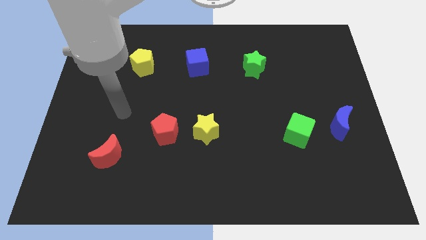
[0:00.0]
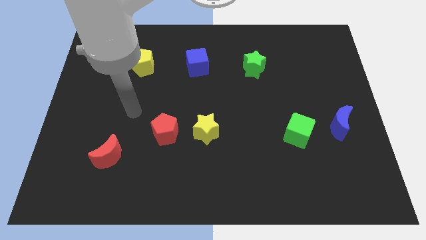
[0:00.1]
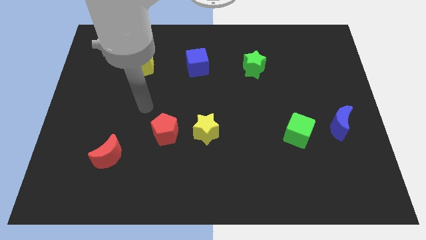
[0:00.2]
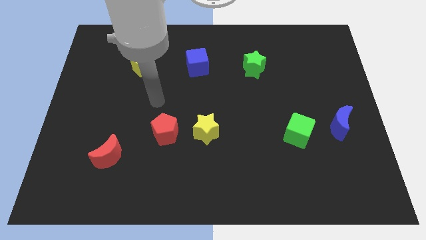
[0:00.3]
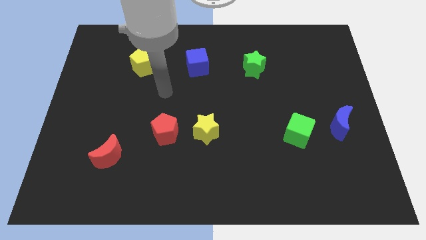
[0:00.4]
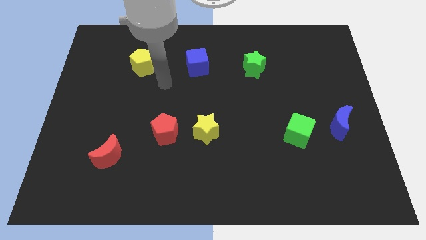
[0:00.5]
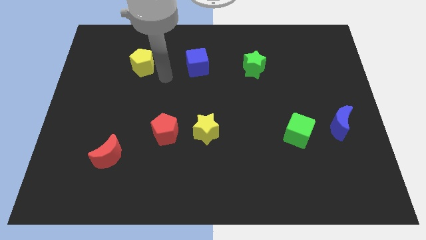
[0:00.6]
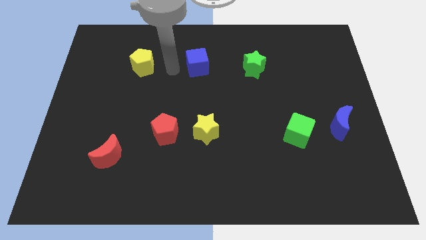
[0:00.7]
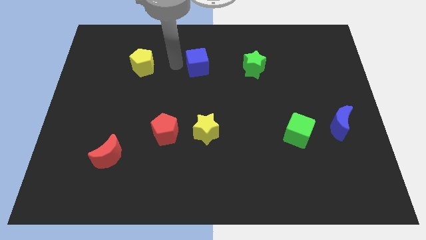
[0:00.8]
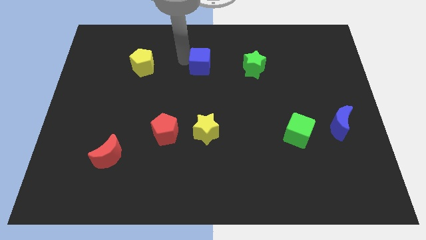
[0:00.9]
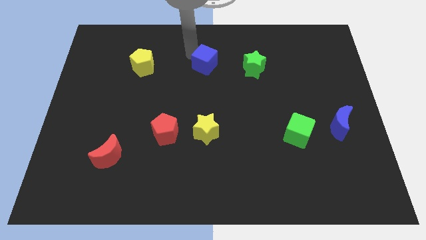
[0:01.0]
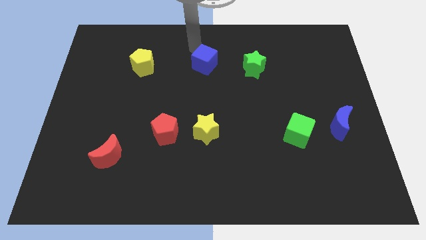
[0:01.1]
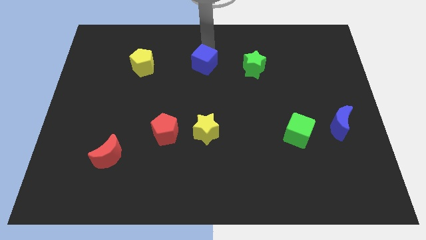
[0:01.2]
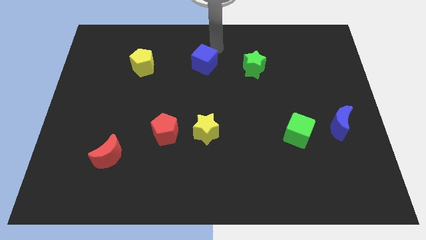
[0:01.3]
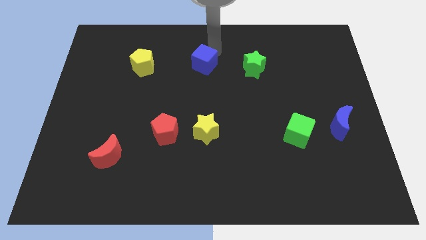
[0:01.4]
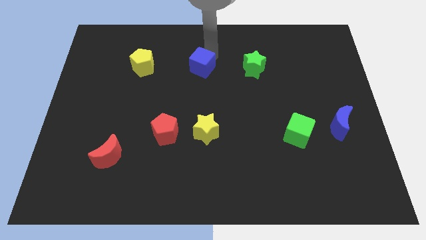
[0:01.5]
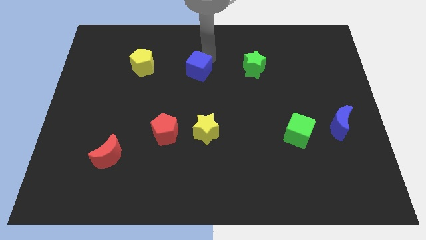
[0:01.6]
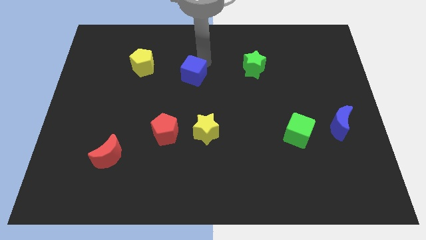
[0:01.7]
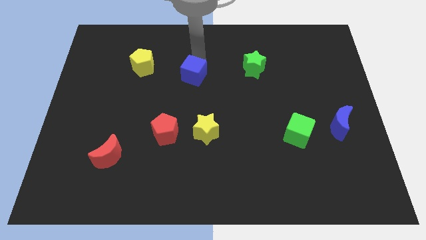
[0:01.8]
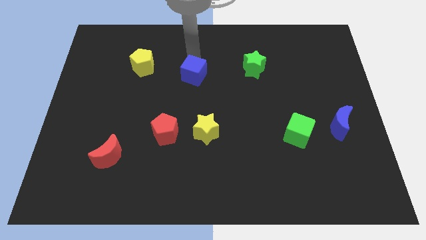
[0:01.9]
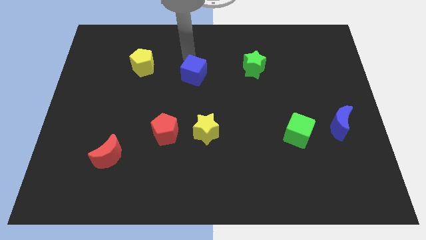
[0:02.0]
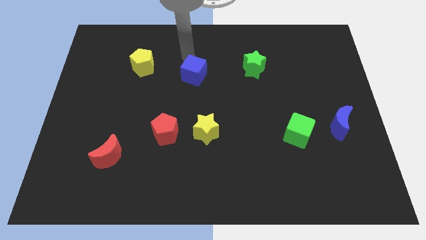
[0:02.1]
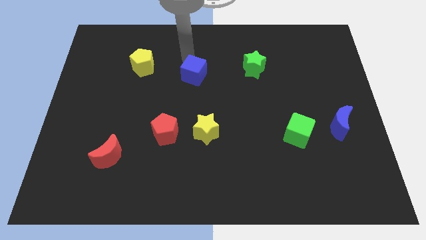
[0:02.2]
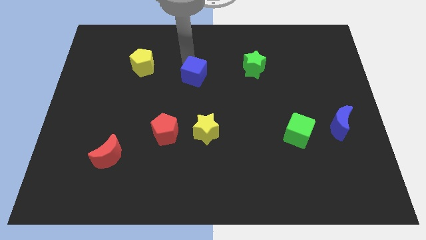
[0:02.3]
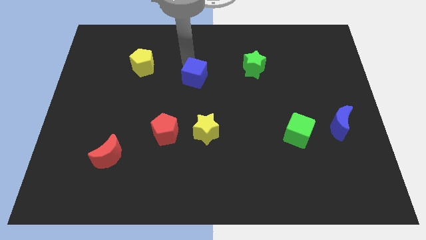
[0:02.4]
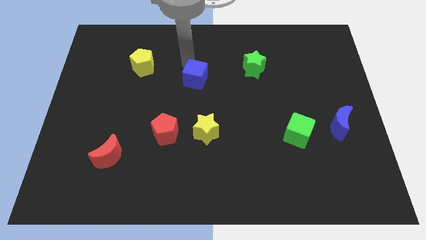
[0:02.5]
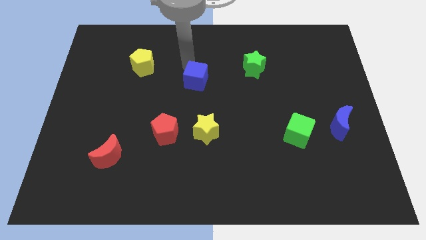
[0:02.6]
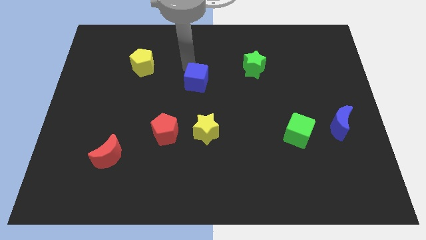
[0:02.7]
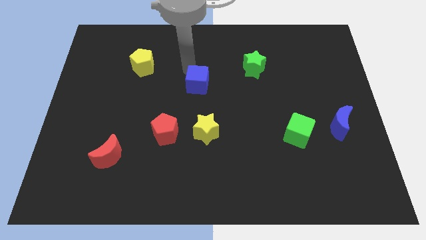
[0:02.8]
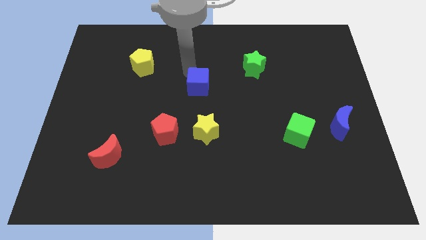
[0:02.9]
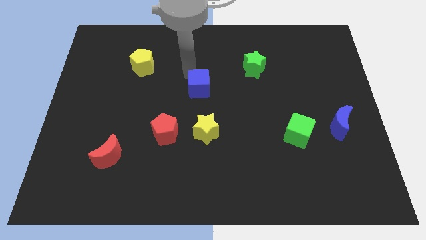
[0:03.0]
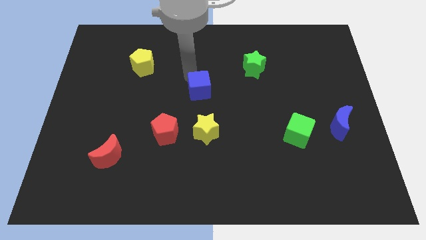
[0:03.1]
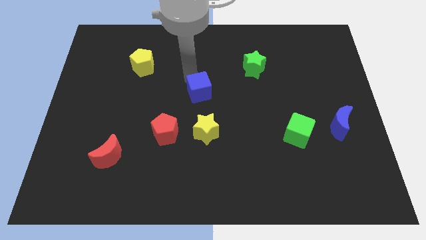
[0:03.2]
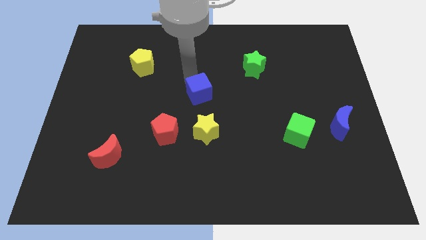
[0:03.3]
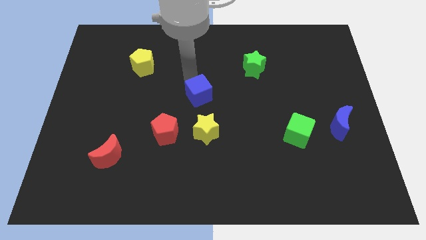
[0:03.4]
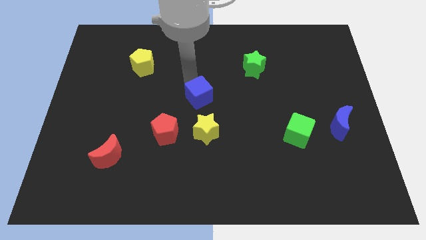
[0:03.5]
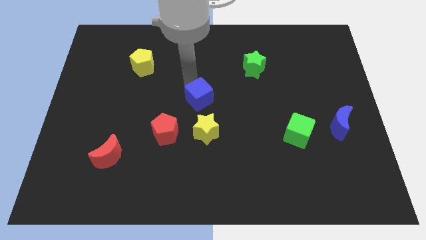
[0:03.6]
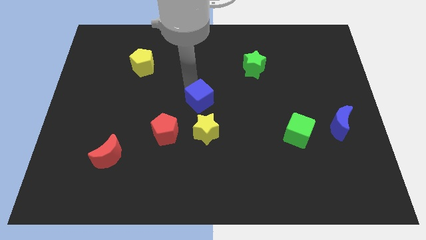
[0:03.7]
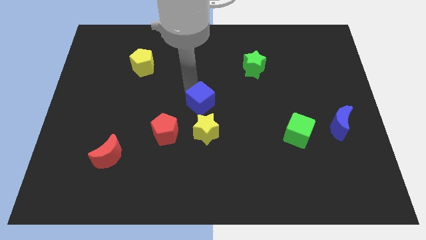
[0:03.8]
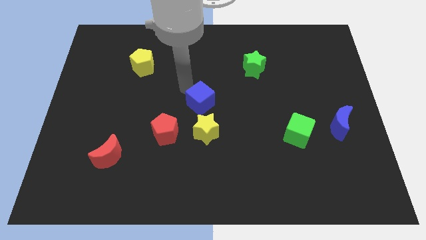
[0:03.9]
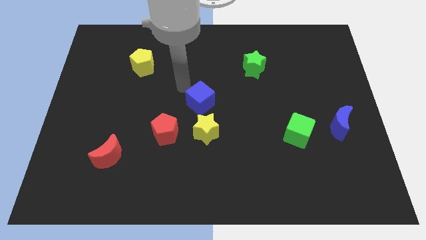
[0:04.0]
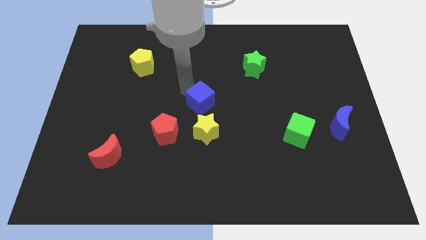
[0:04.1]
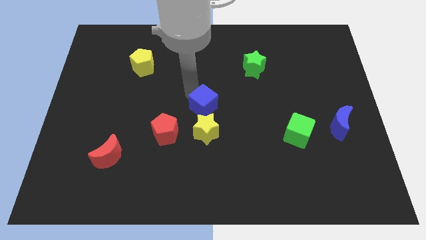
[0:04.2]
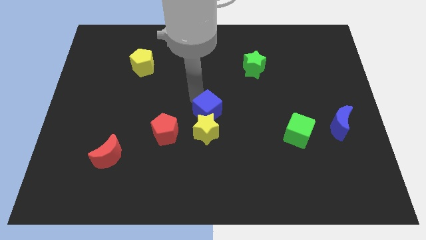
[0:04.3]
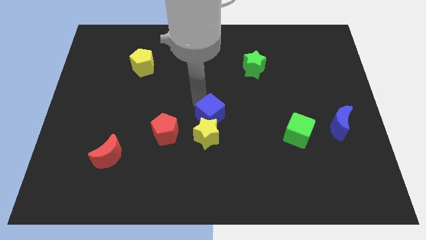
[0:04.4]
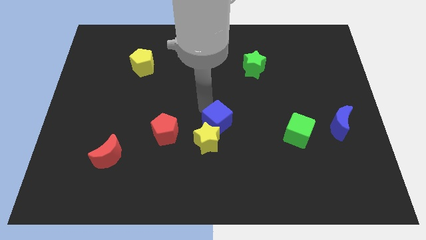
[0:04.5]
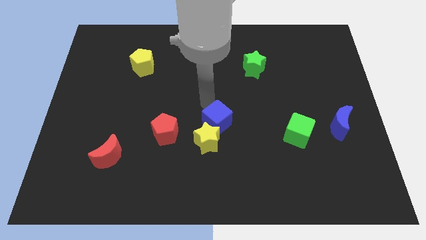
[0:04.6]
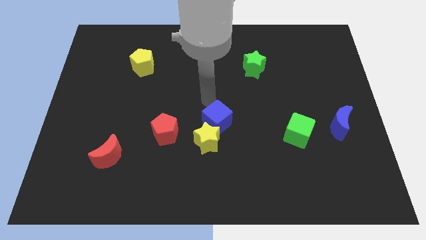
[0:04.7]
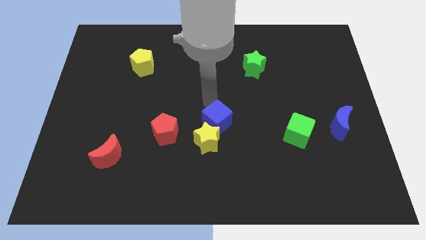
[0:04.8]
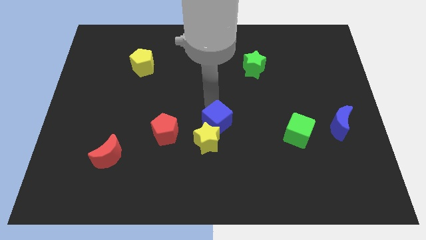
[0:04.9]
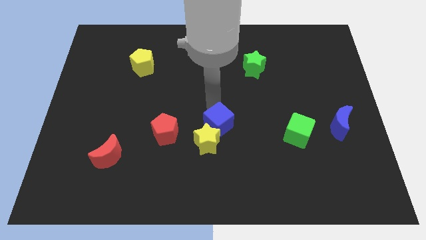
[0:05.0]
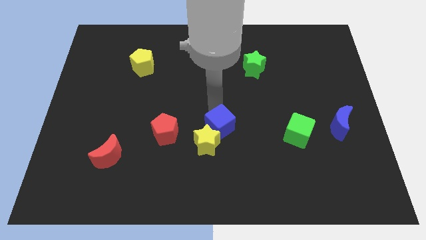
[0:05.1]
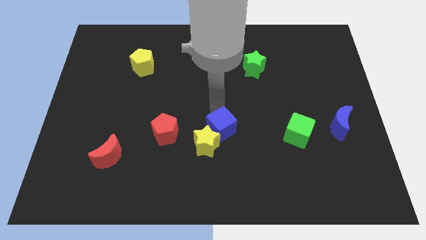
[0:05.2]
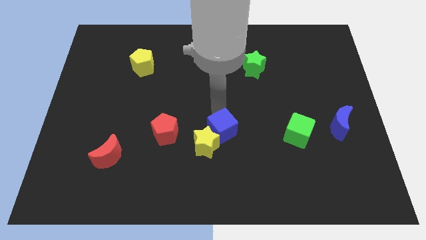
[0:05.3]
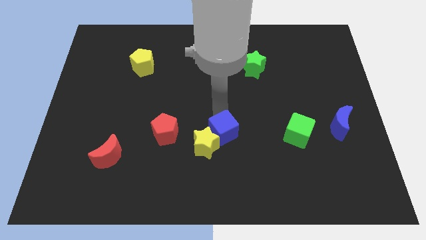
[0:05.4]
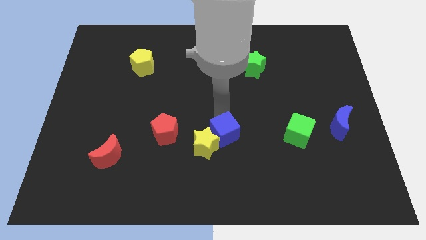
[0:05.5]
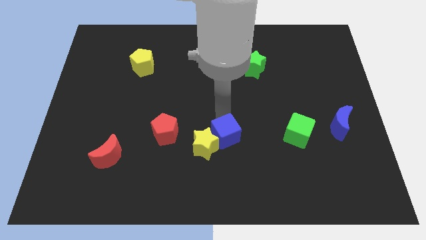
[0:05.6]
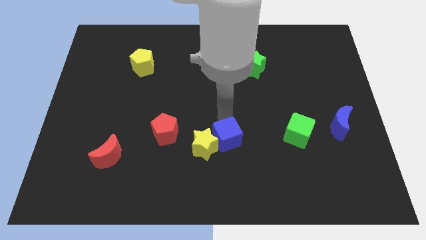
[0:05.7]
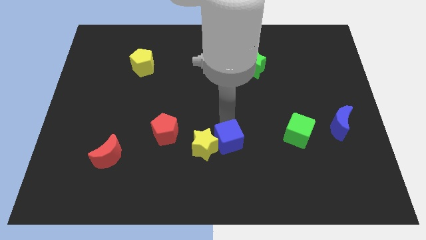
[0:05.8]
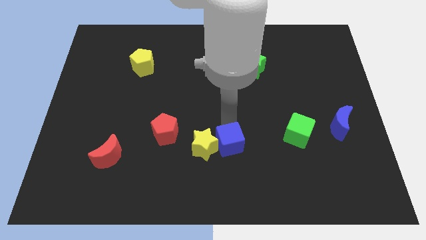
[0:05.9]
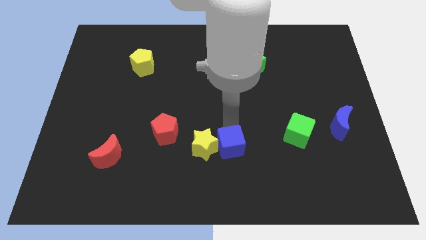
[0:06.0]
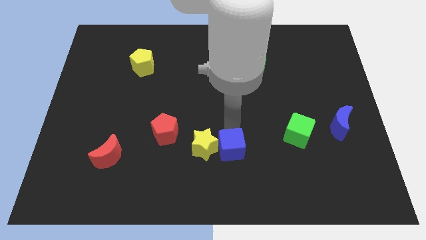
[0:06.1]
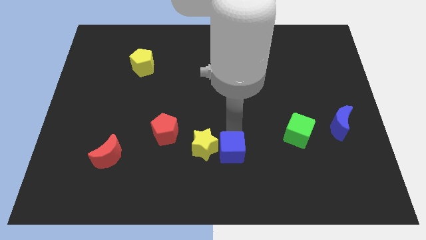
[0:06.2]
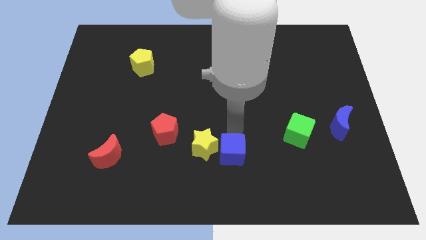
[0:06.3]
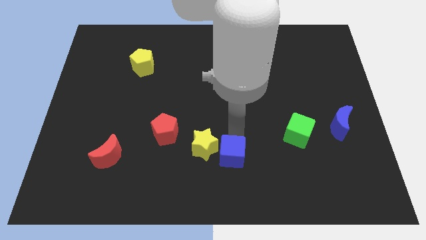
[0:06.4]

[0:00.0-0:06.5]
put the blue cube to the bottom side

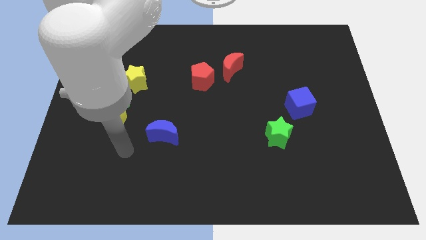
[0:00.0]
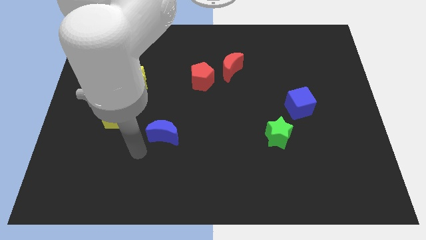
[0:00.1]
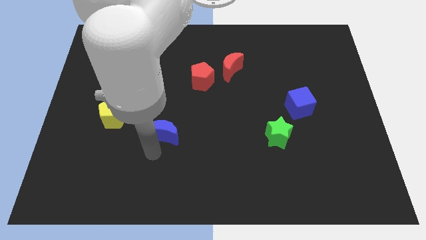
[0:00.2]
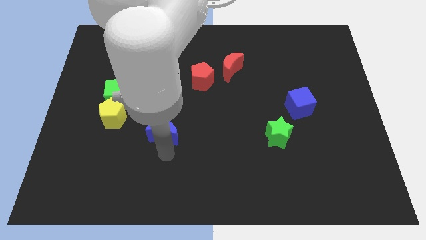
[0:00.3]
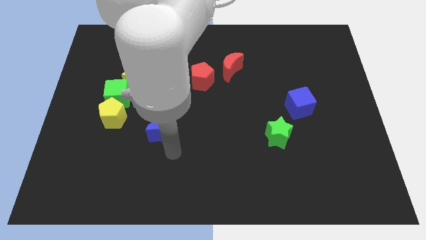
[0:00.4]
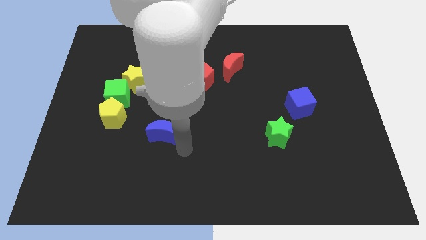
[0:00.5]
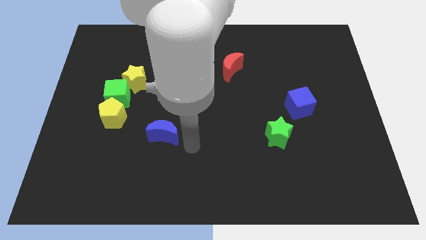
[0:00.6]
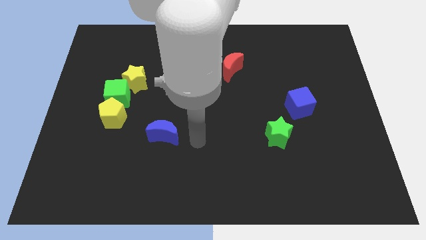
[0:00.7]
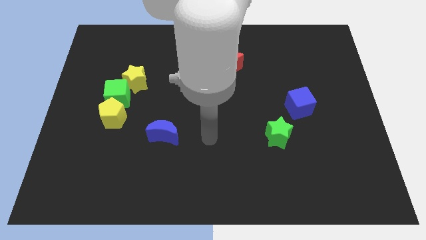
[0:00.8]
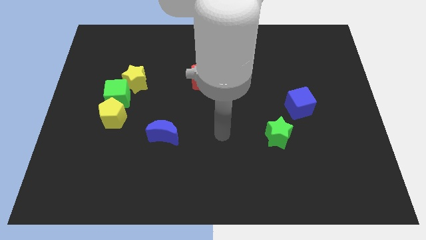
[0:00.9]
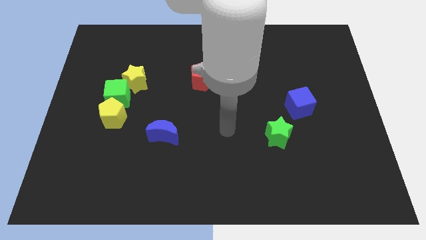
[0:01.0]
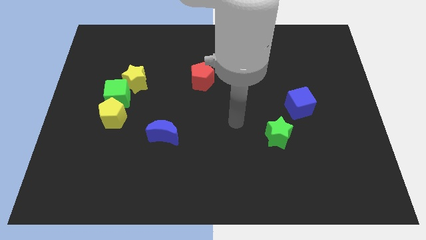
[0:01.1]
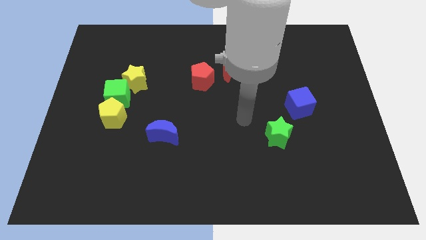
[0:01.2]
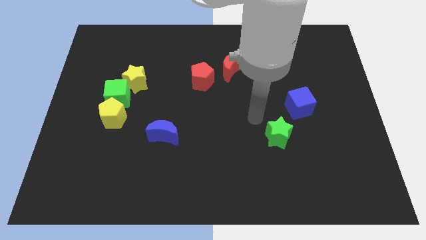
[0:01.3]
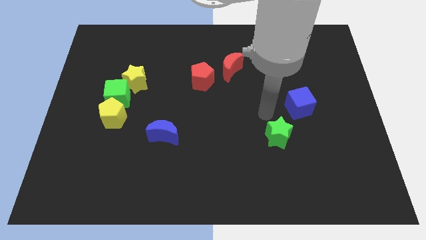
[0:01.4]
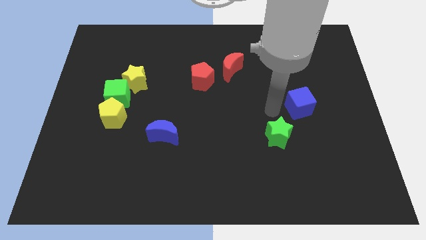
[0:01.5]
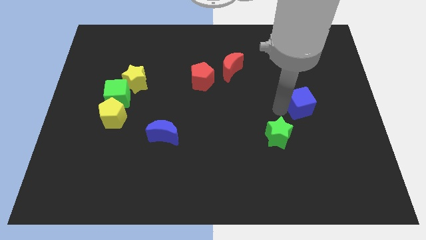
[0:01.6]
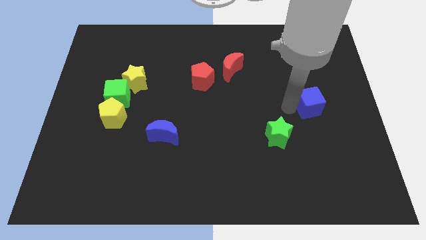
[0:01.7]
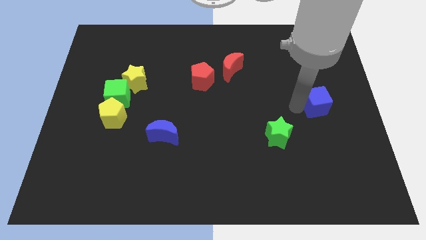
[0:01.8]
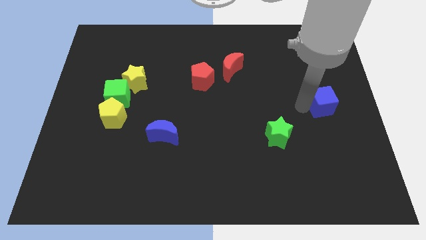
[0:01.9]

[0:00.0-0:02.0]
put the blue cube to the center right
